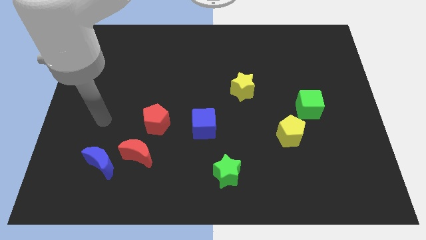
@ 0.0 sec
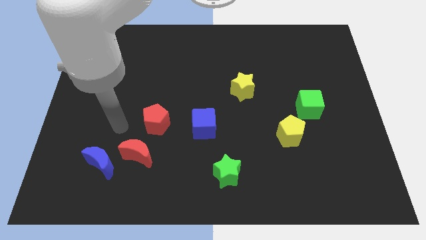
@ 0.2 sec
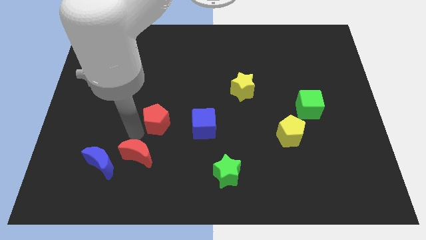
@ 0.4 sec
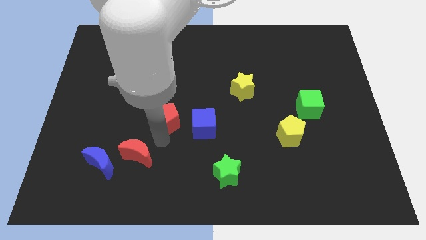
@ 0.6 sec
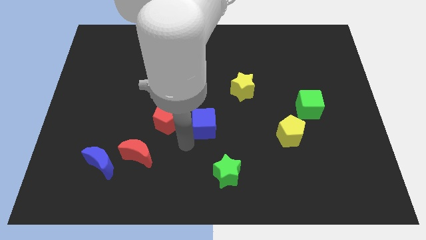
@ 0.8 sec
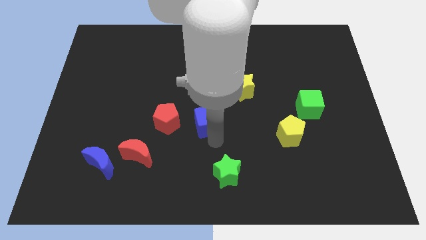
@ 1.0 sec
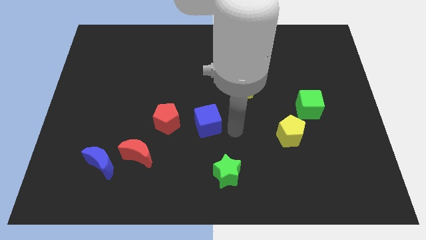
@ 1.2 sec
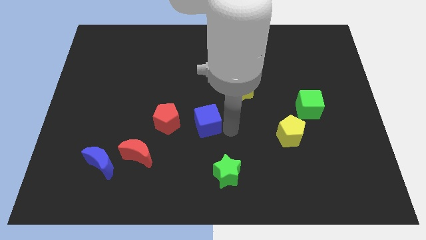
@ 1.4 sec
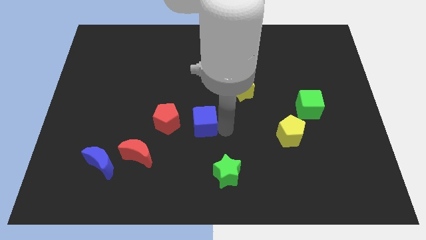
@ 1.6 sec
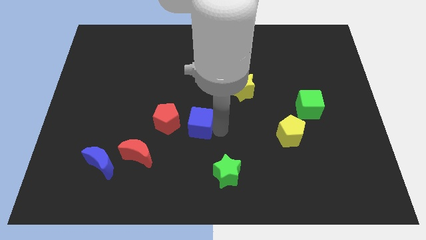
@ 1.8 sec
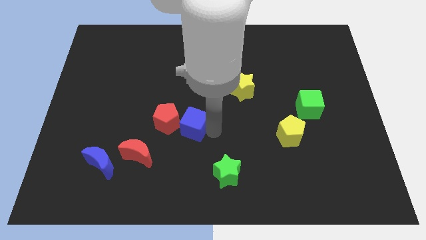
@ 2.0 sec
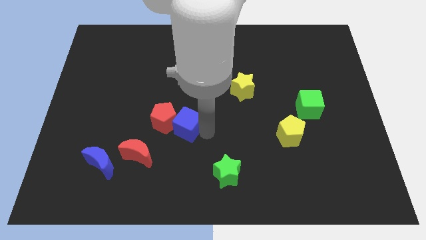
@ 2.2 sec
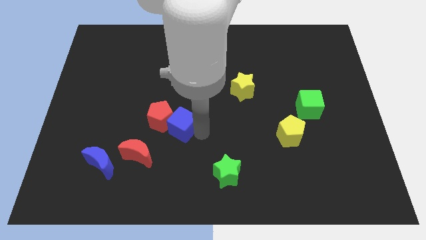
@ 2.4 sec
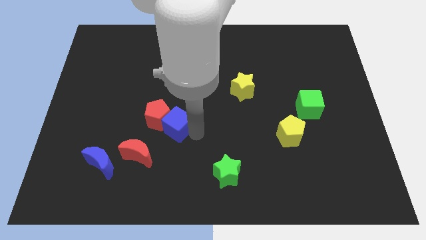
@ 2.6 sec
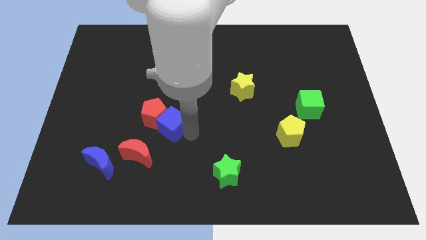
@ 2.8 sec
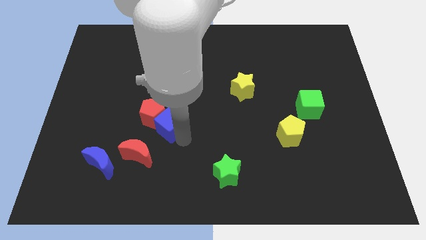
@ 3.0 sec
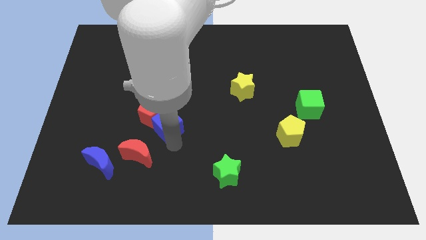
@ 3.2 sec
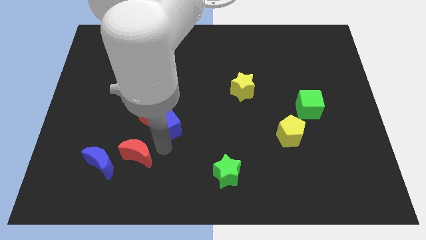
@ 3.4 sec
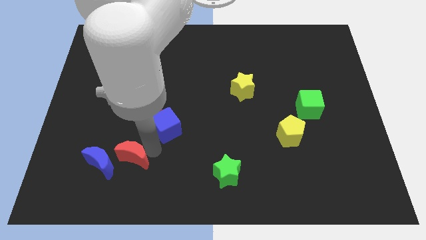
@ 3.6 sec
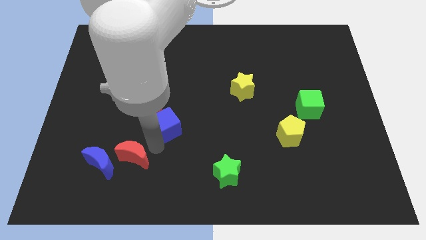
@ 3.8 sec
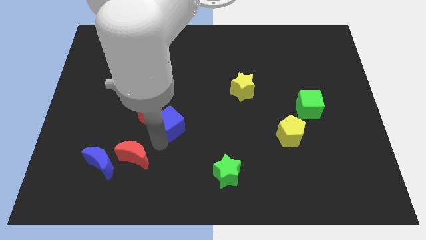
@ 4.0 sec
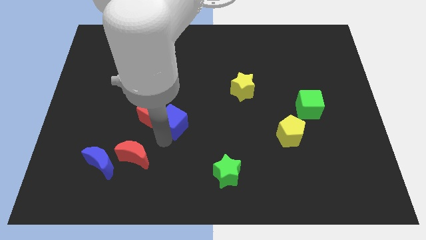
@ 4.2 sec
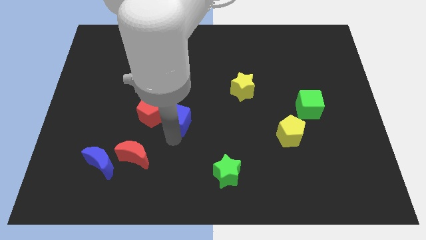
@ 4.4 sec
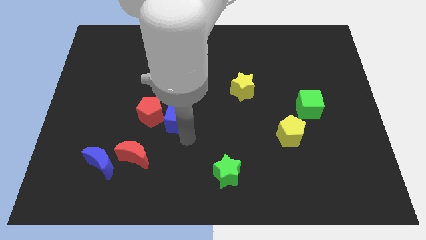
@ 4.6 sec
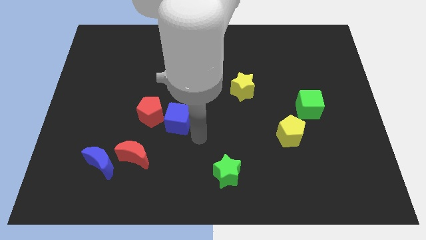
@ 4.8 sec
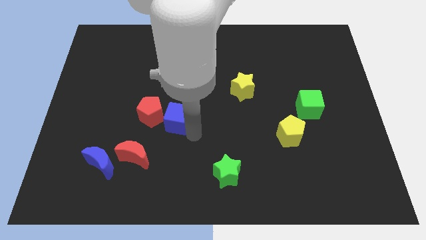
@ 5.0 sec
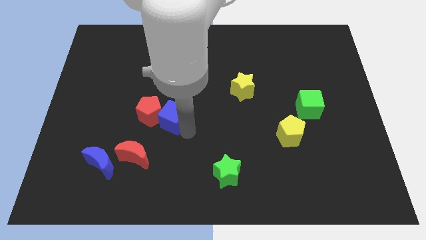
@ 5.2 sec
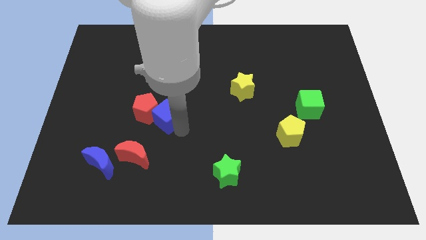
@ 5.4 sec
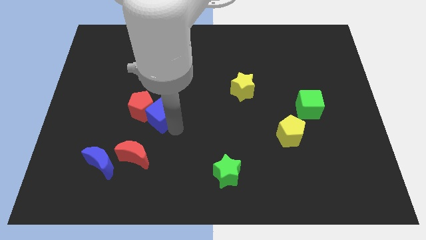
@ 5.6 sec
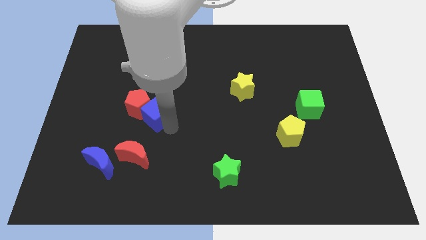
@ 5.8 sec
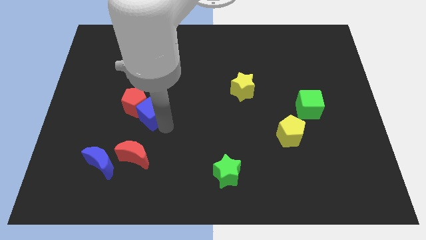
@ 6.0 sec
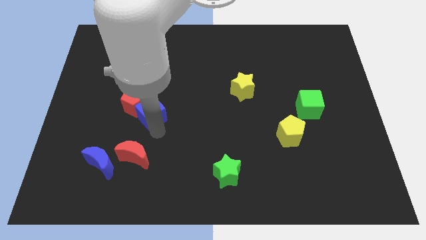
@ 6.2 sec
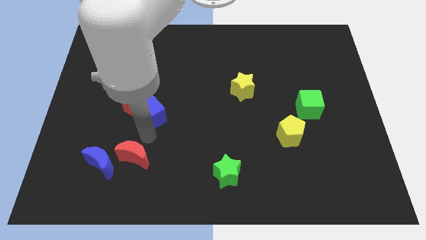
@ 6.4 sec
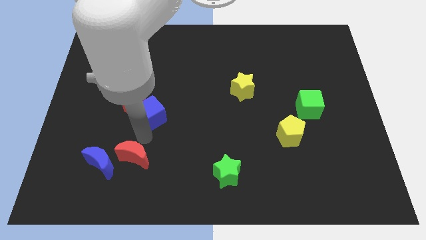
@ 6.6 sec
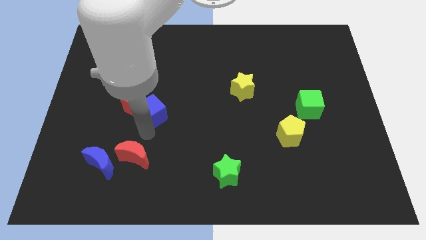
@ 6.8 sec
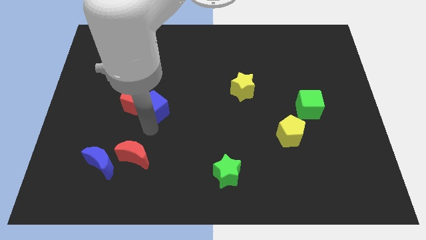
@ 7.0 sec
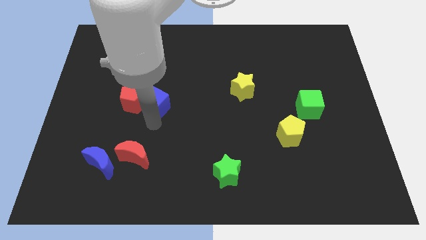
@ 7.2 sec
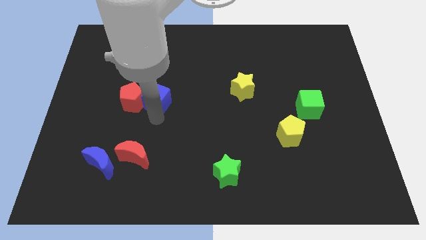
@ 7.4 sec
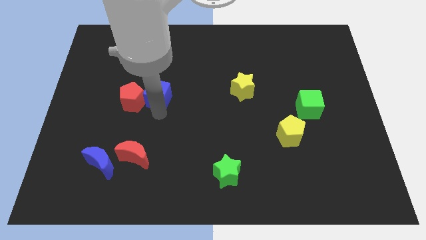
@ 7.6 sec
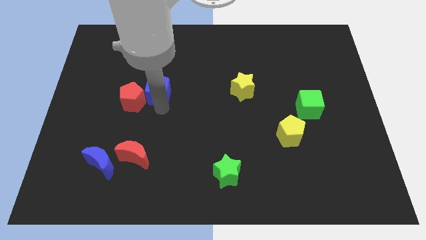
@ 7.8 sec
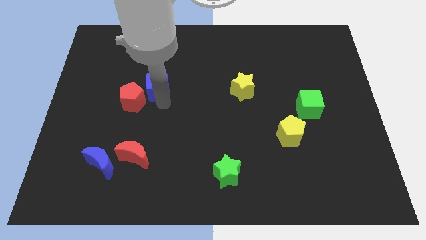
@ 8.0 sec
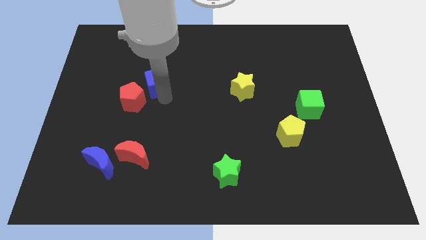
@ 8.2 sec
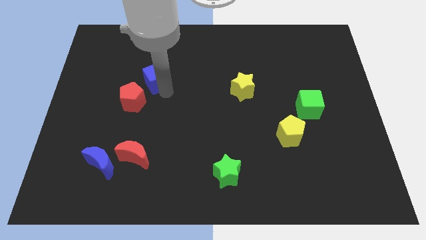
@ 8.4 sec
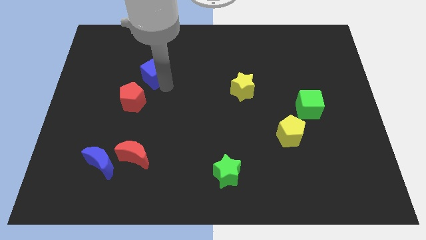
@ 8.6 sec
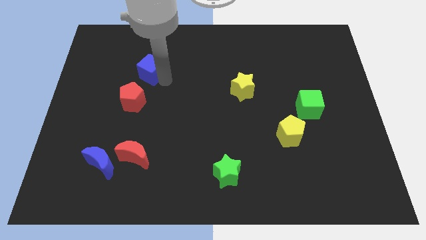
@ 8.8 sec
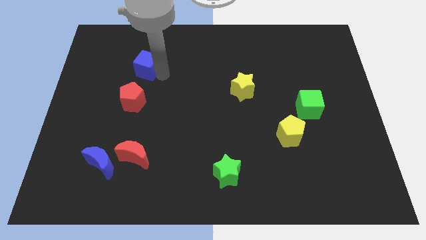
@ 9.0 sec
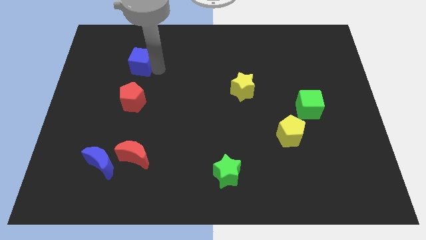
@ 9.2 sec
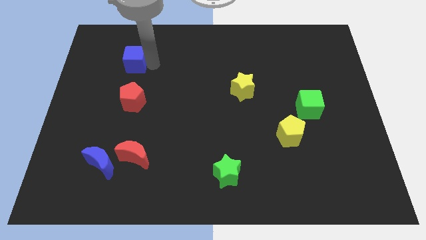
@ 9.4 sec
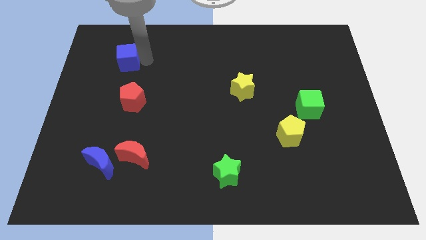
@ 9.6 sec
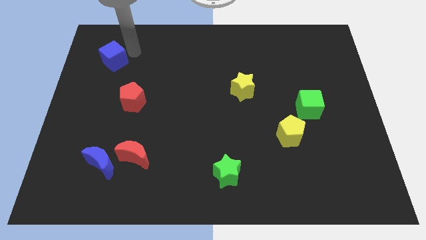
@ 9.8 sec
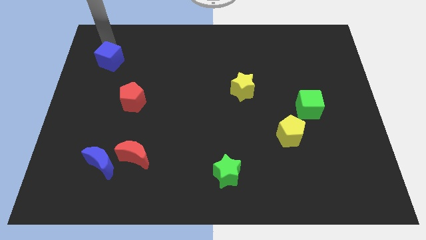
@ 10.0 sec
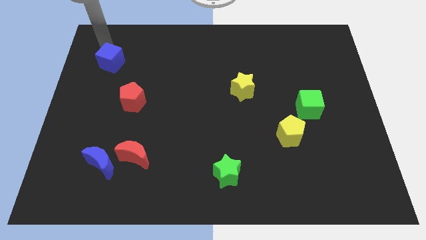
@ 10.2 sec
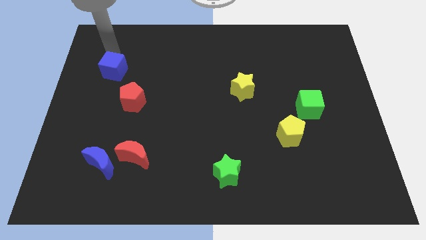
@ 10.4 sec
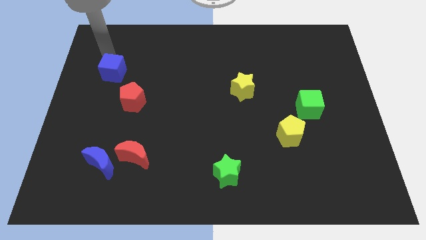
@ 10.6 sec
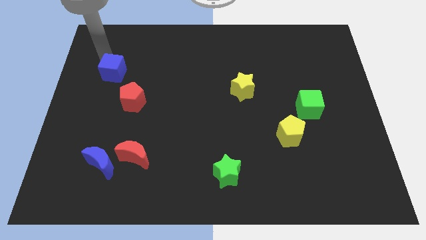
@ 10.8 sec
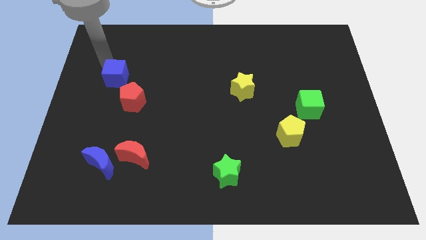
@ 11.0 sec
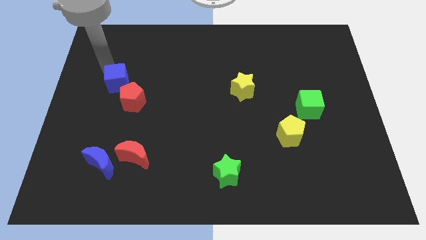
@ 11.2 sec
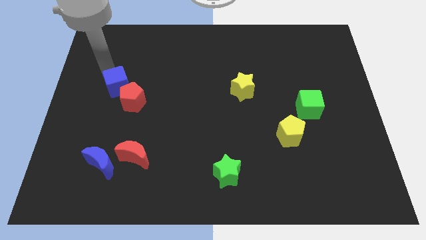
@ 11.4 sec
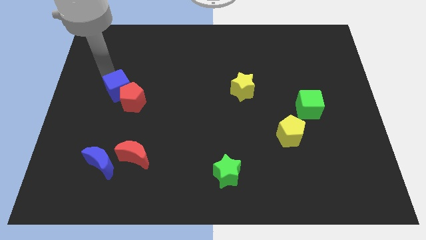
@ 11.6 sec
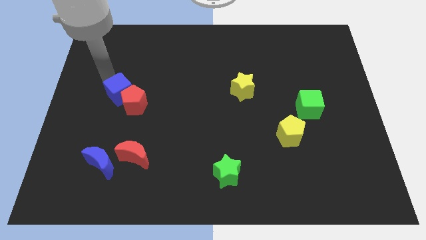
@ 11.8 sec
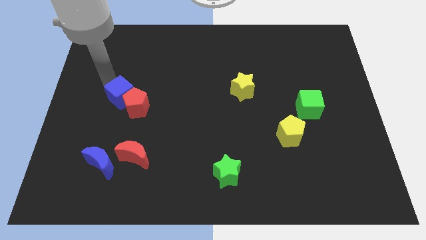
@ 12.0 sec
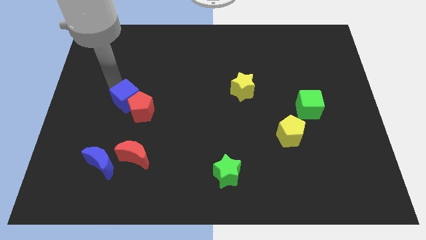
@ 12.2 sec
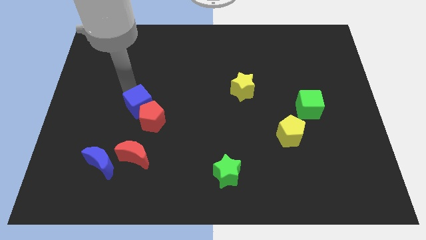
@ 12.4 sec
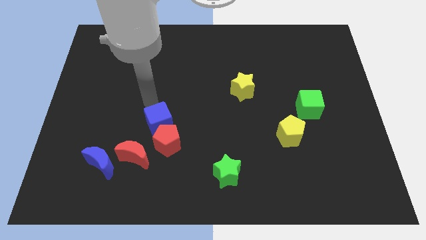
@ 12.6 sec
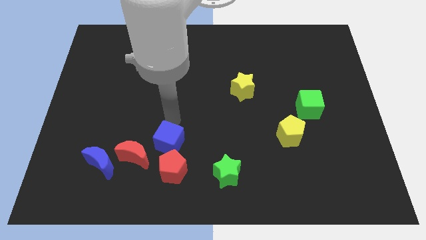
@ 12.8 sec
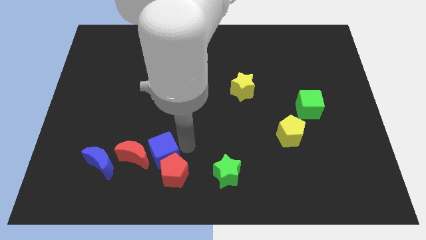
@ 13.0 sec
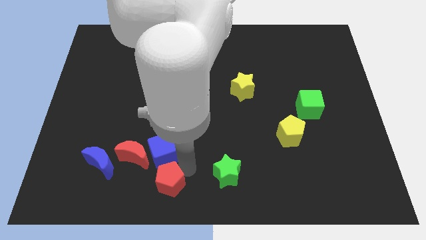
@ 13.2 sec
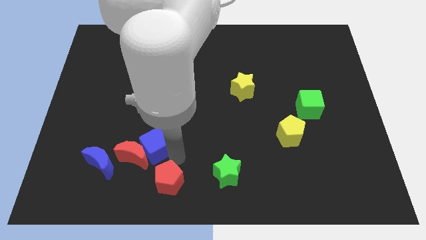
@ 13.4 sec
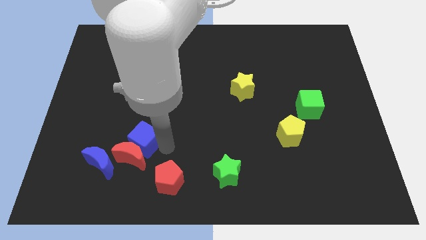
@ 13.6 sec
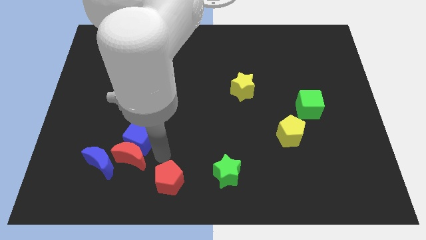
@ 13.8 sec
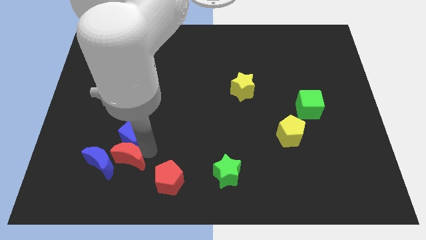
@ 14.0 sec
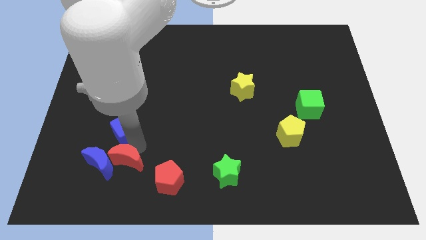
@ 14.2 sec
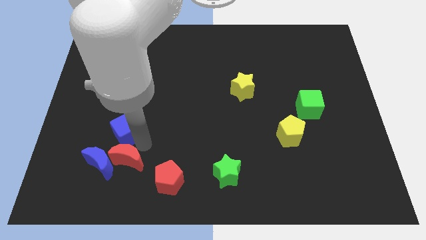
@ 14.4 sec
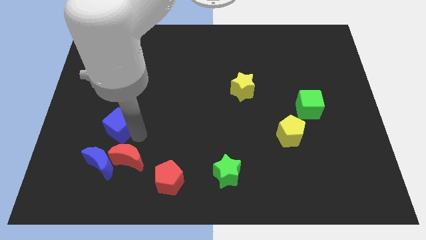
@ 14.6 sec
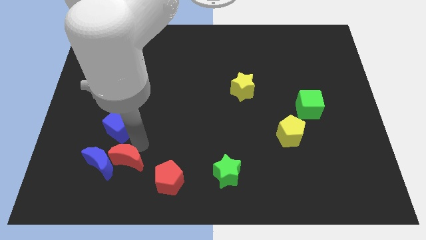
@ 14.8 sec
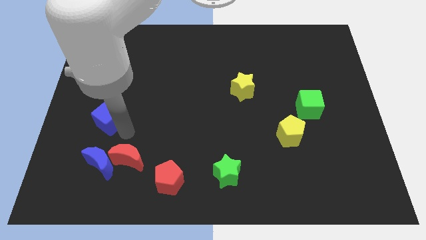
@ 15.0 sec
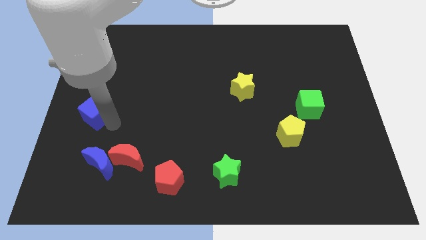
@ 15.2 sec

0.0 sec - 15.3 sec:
put the blue cube to the left side
